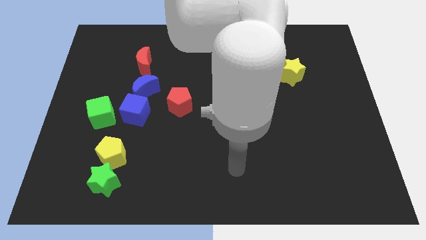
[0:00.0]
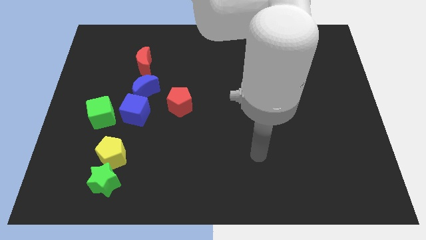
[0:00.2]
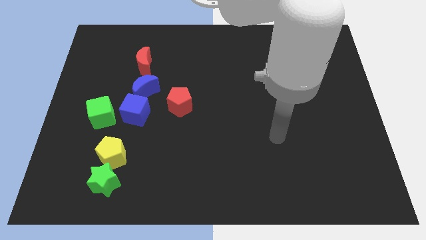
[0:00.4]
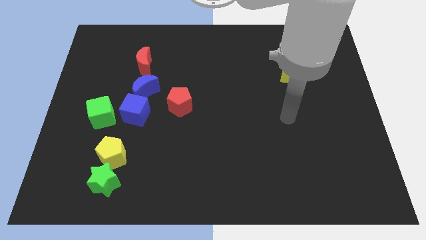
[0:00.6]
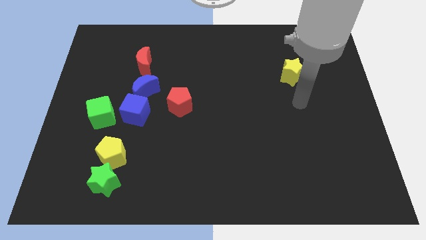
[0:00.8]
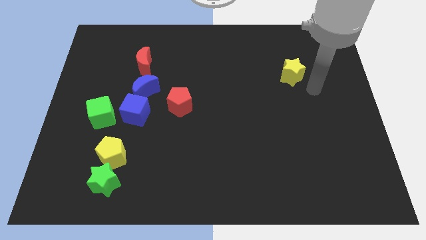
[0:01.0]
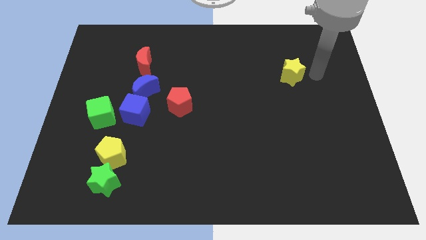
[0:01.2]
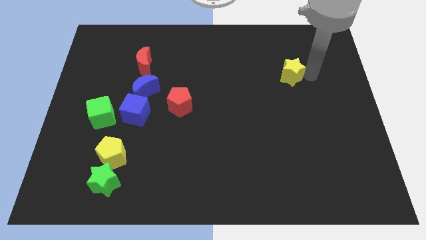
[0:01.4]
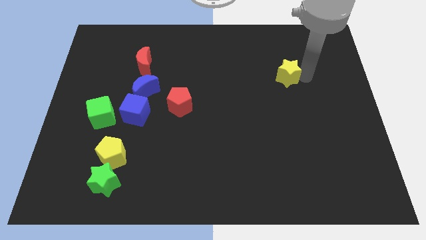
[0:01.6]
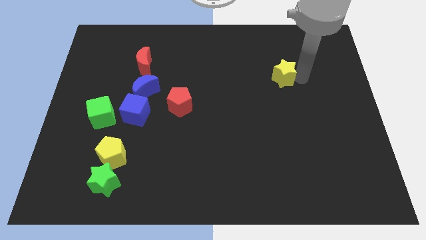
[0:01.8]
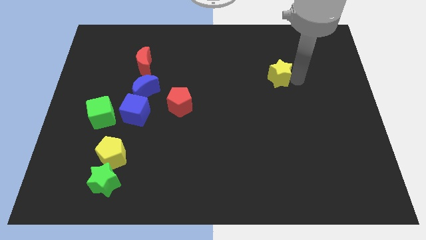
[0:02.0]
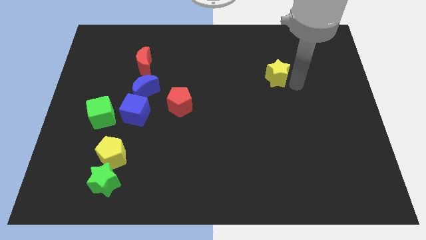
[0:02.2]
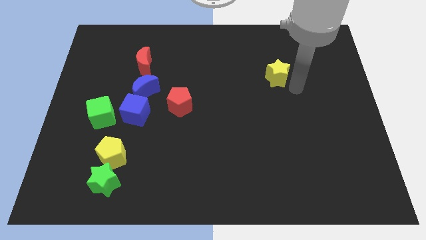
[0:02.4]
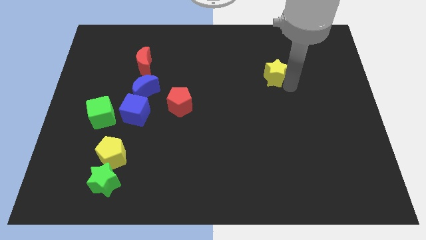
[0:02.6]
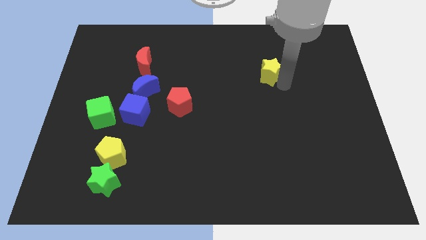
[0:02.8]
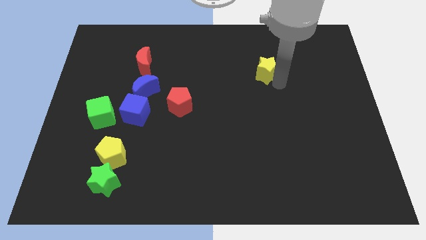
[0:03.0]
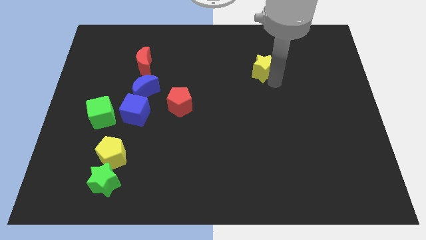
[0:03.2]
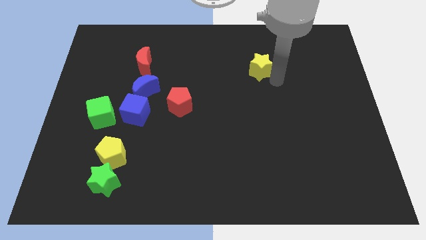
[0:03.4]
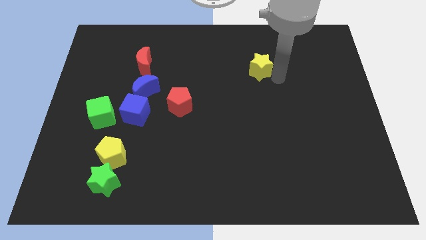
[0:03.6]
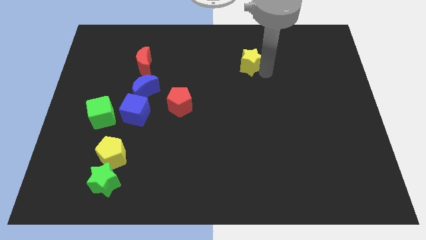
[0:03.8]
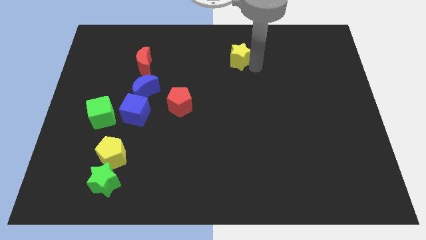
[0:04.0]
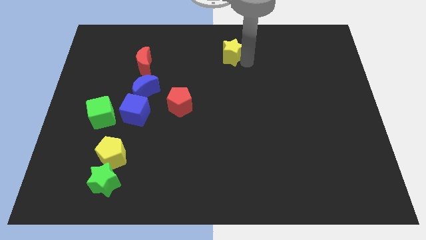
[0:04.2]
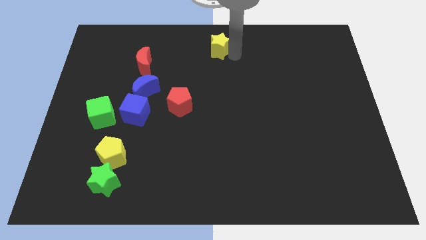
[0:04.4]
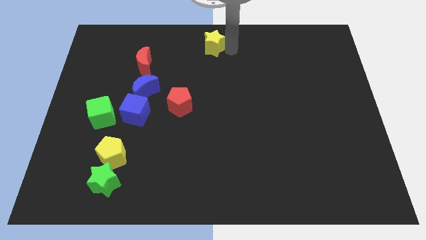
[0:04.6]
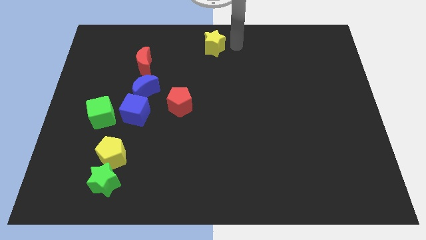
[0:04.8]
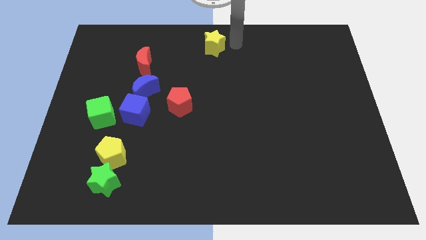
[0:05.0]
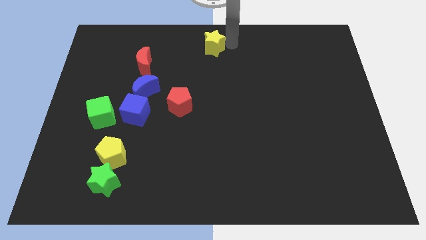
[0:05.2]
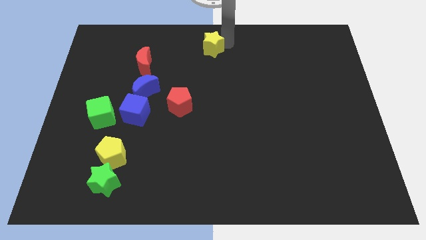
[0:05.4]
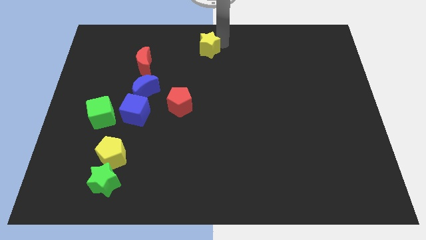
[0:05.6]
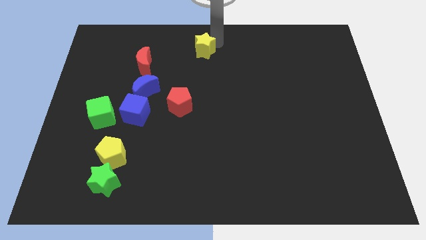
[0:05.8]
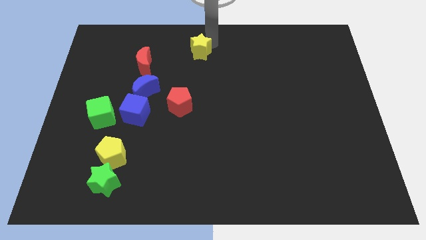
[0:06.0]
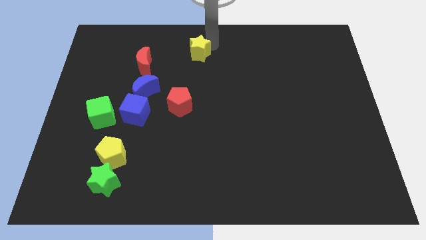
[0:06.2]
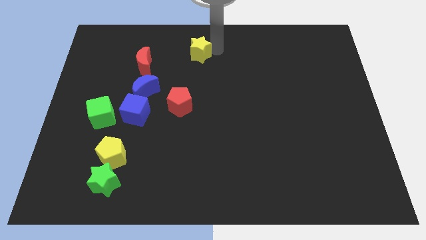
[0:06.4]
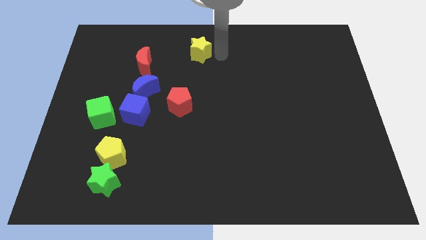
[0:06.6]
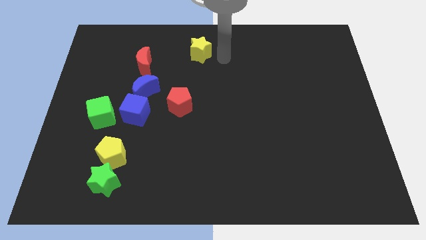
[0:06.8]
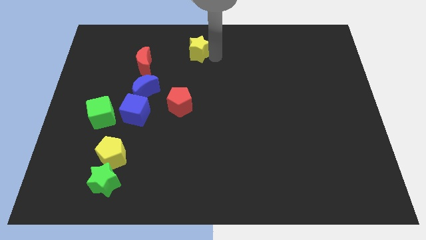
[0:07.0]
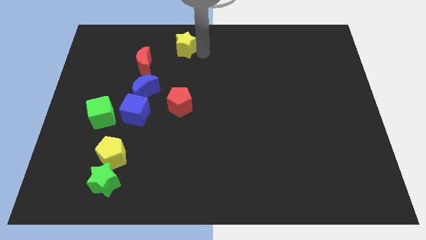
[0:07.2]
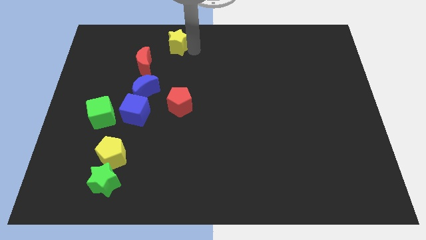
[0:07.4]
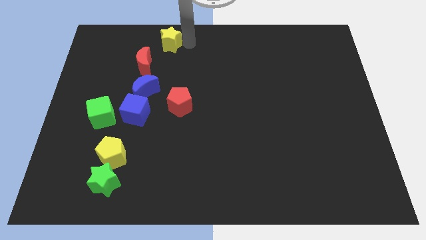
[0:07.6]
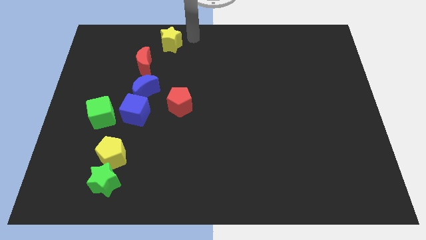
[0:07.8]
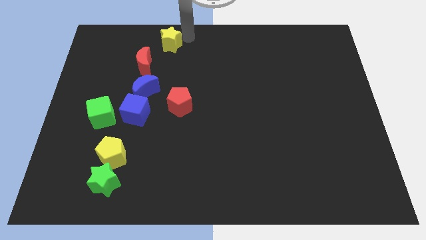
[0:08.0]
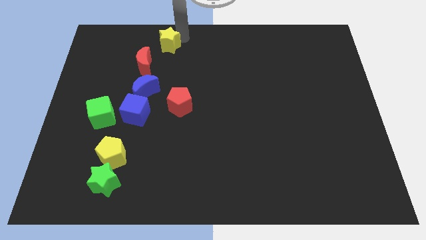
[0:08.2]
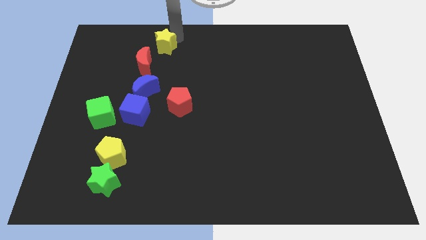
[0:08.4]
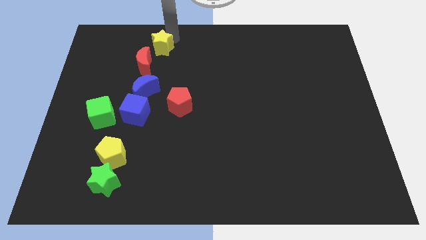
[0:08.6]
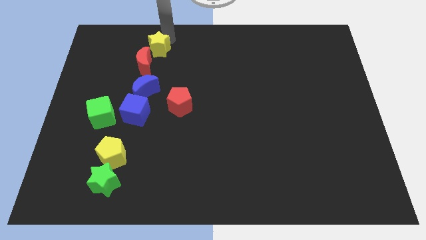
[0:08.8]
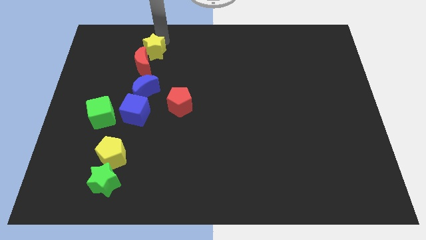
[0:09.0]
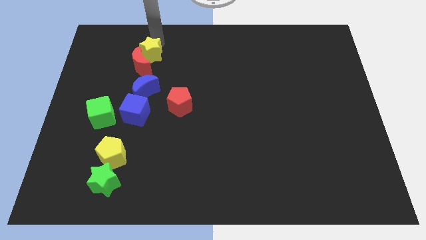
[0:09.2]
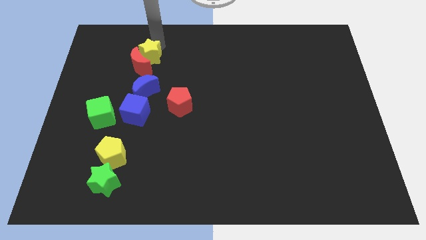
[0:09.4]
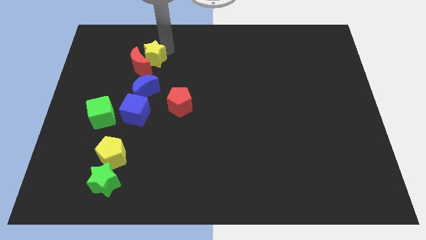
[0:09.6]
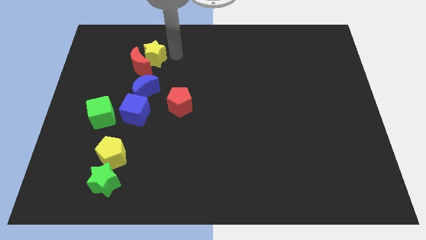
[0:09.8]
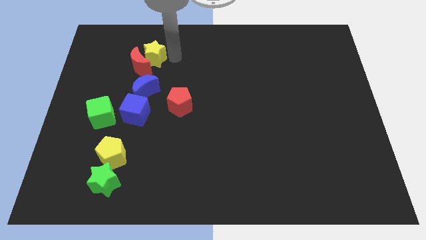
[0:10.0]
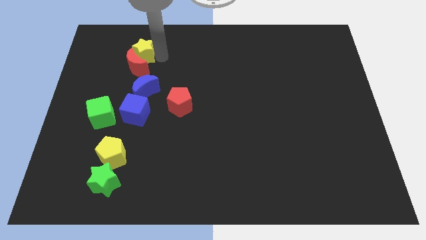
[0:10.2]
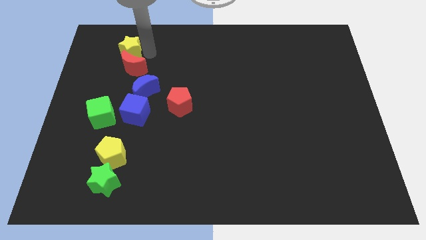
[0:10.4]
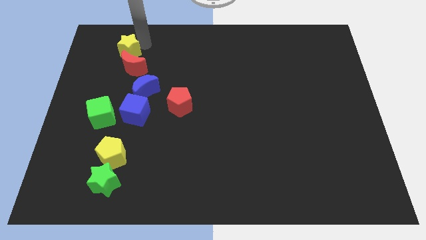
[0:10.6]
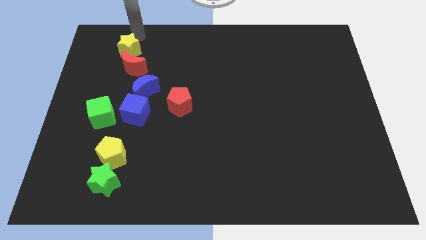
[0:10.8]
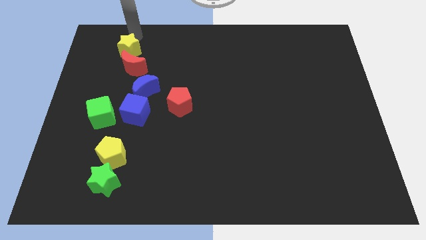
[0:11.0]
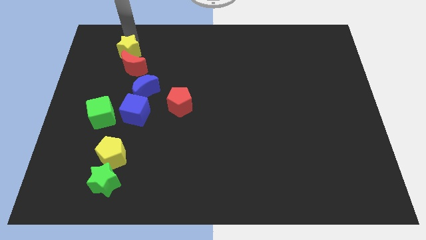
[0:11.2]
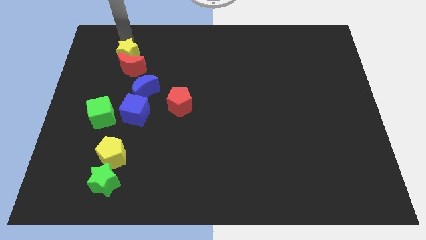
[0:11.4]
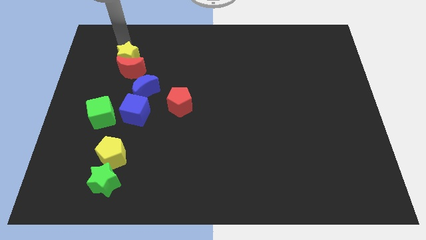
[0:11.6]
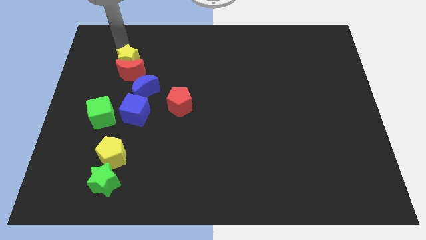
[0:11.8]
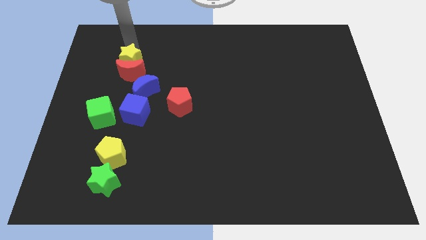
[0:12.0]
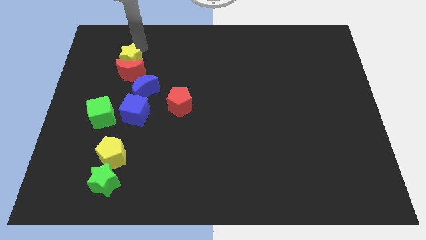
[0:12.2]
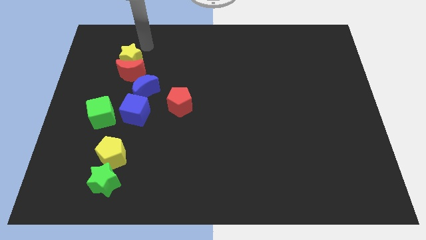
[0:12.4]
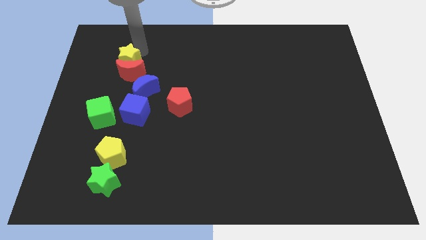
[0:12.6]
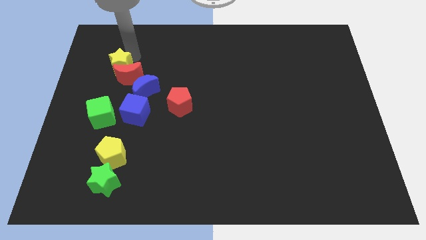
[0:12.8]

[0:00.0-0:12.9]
put the yellow star above the green cube
